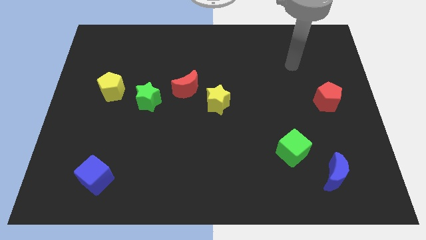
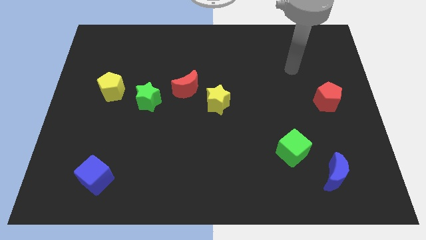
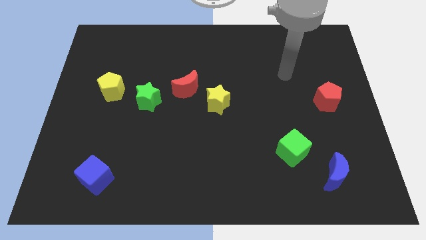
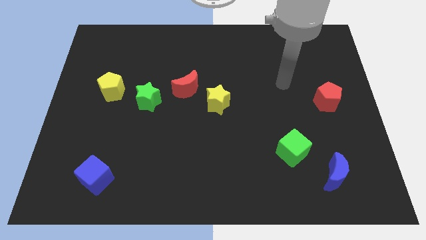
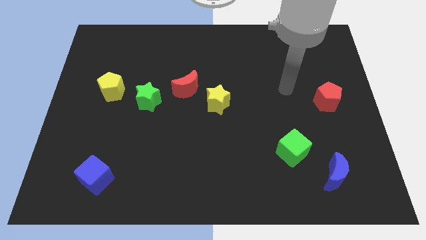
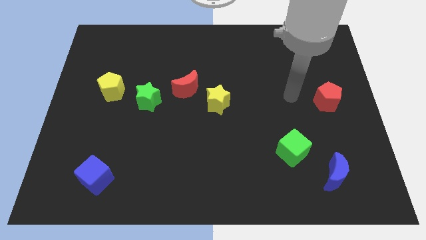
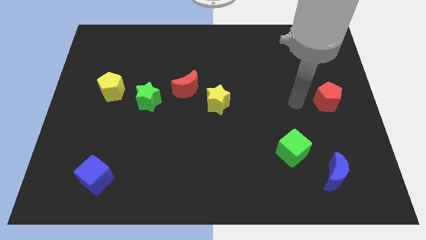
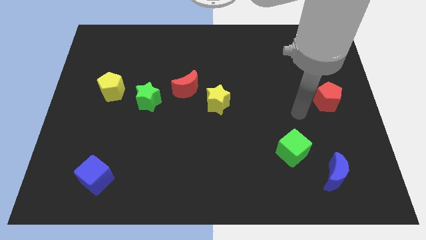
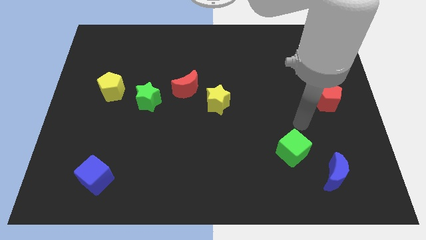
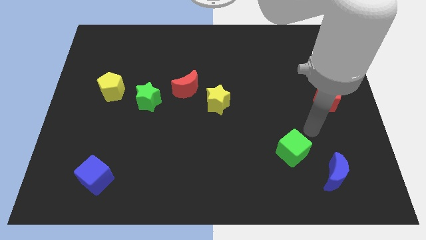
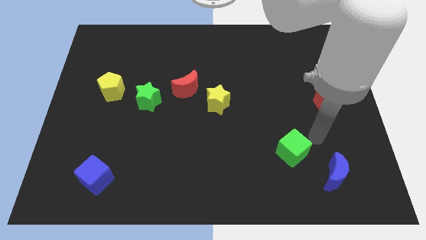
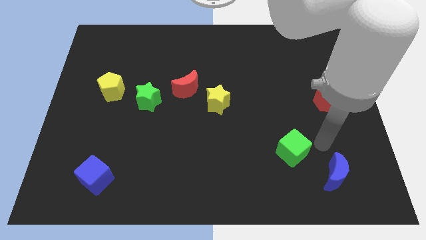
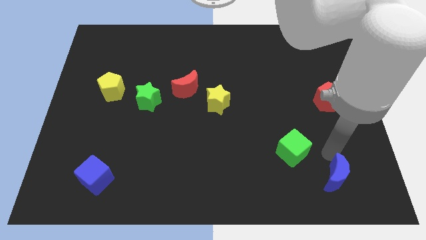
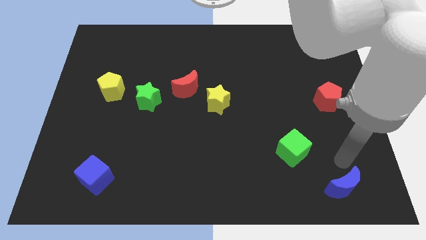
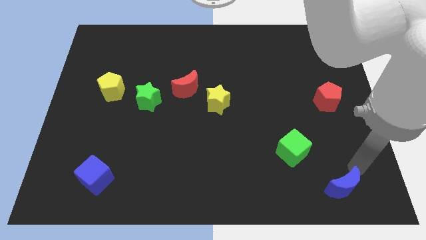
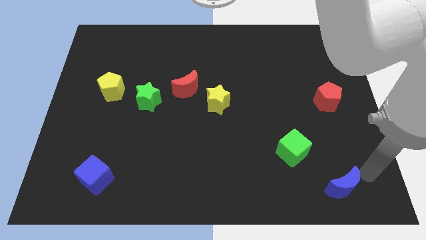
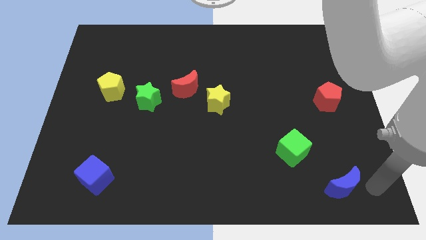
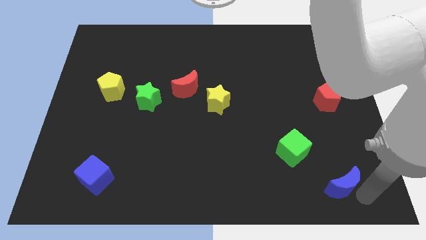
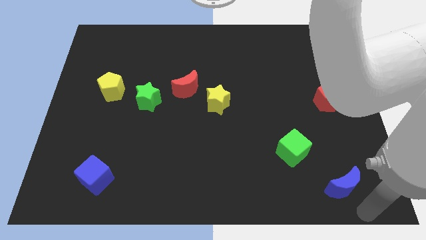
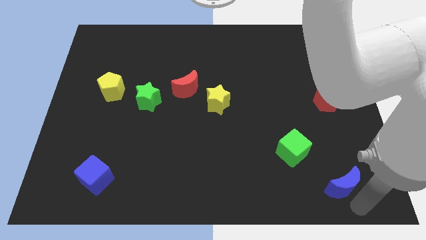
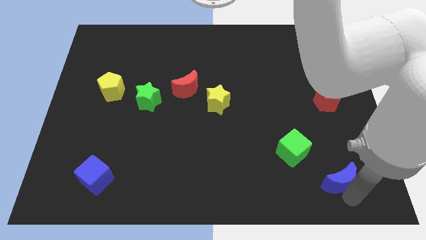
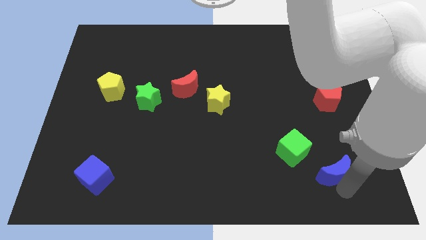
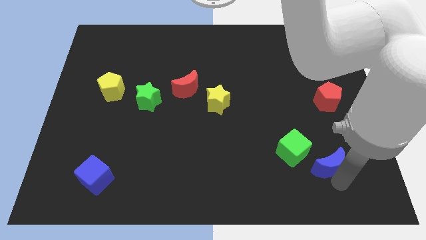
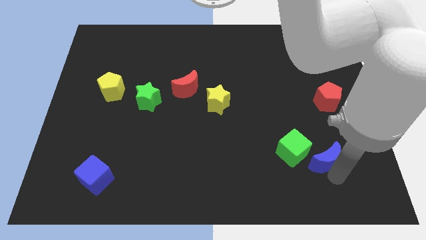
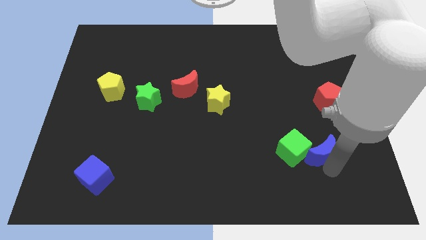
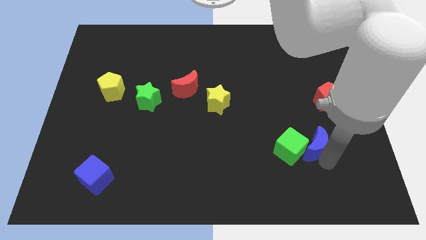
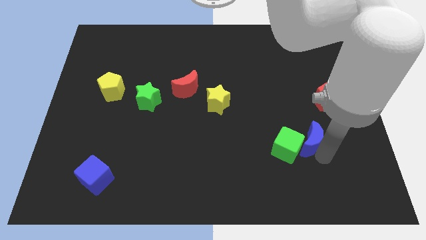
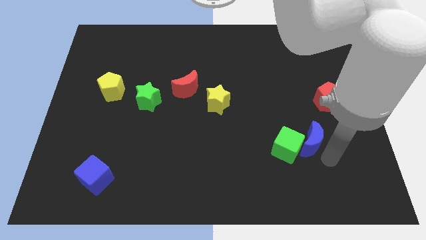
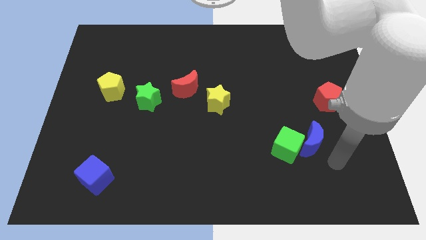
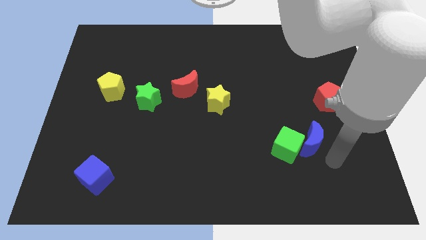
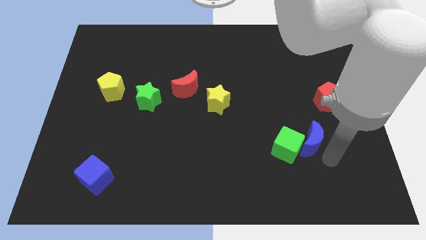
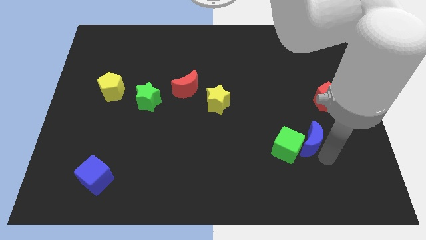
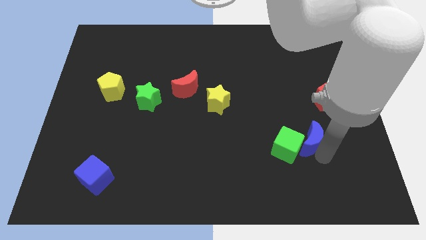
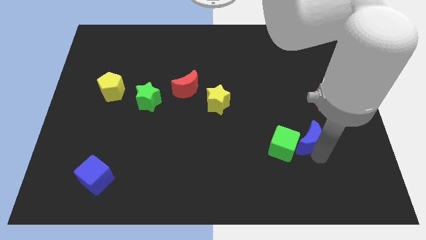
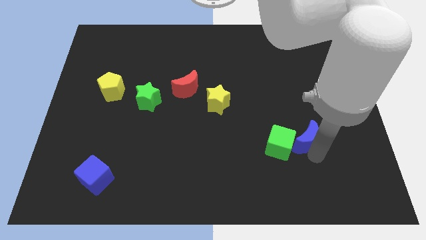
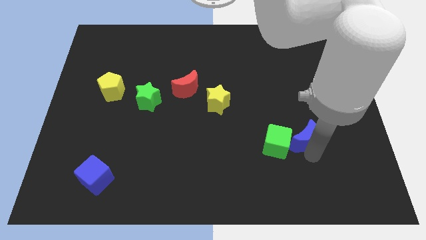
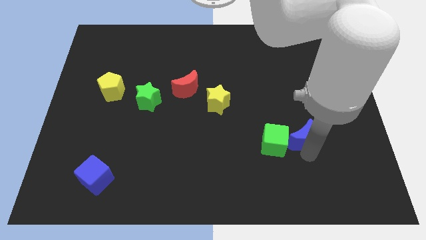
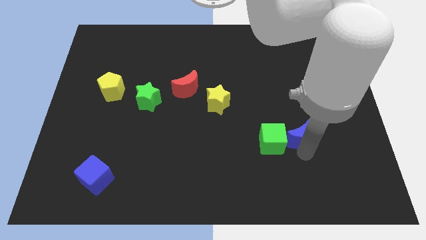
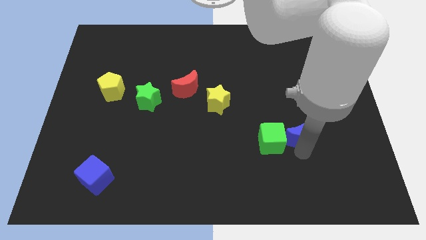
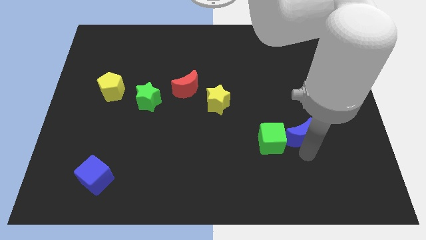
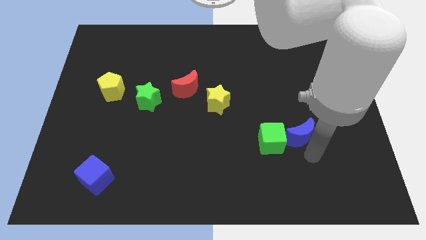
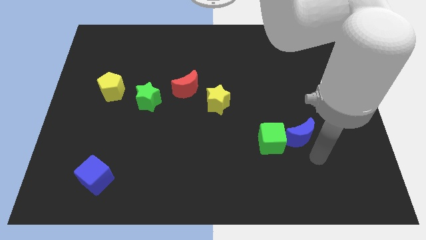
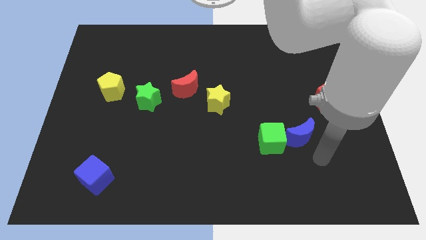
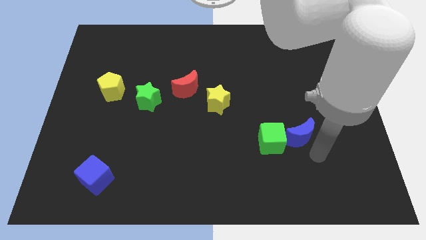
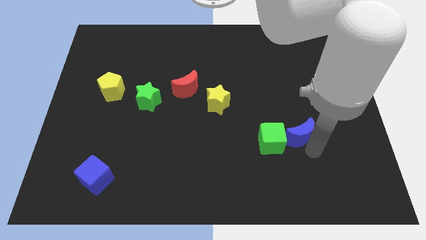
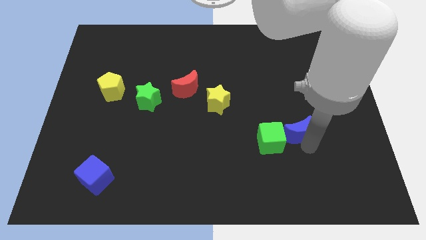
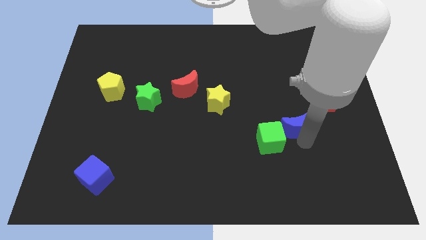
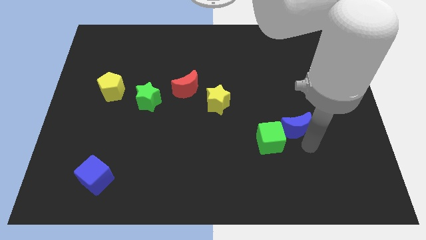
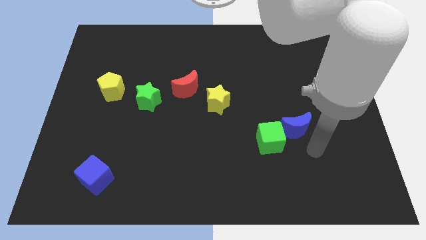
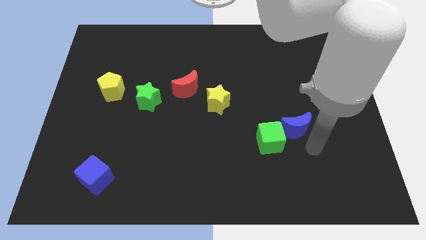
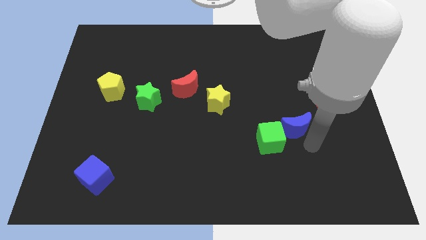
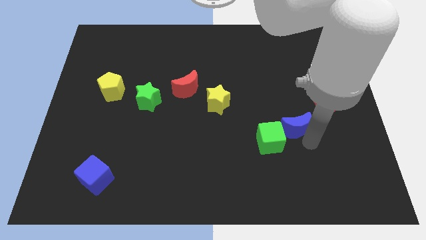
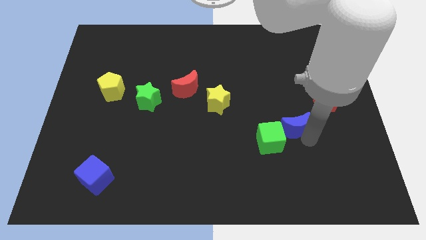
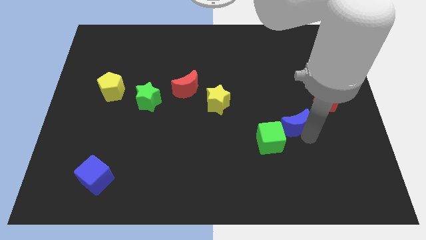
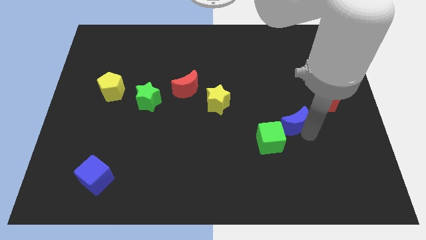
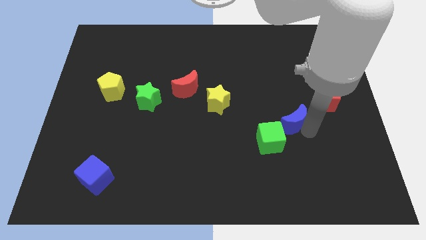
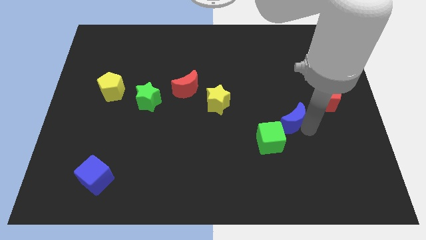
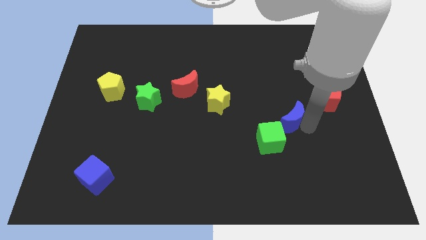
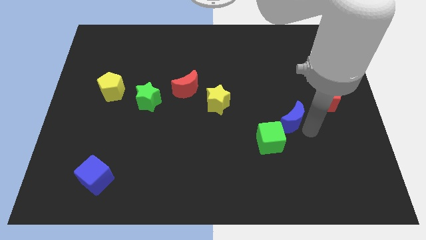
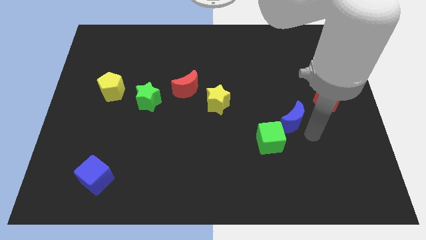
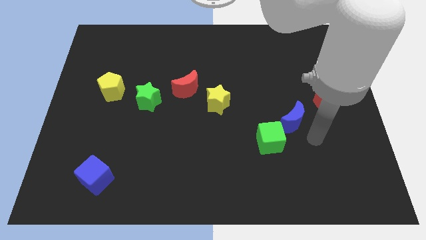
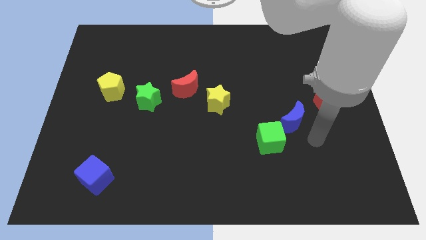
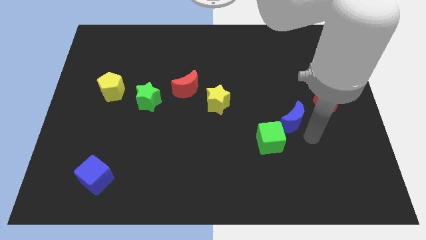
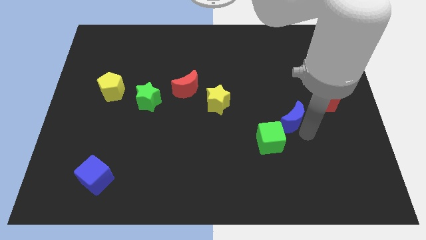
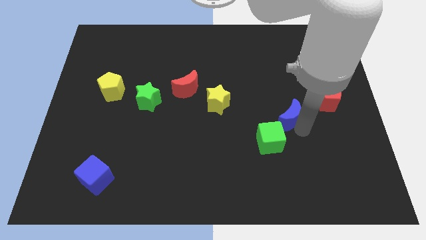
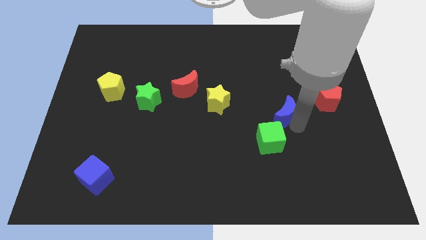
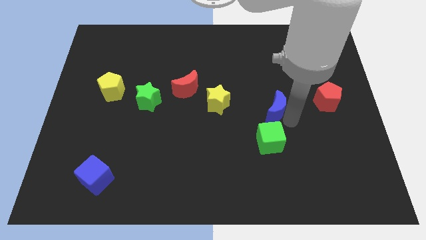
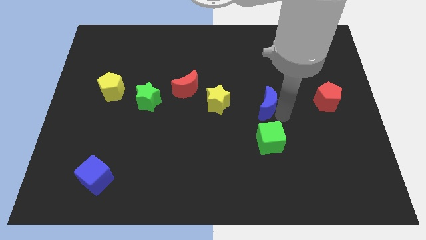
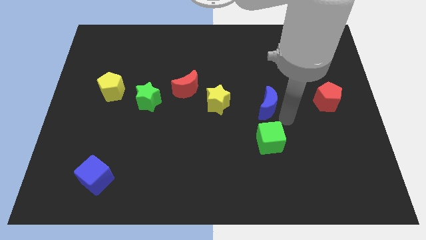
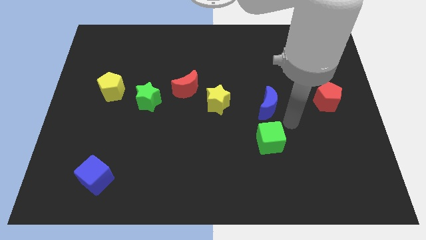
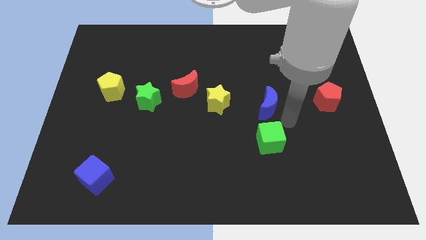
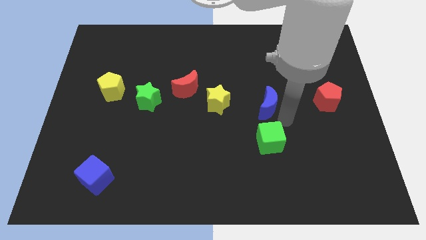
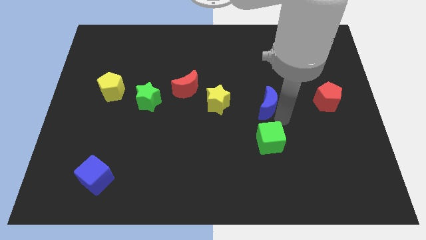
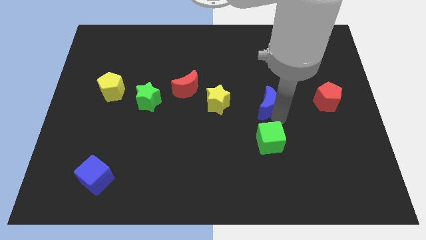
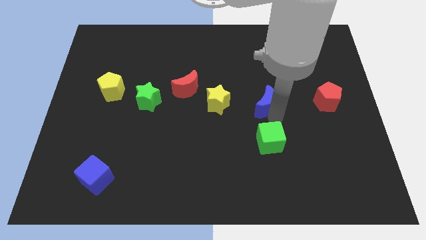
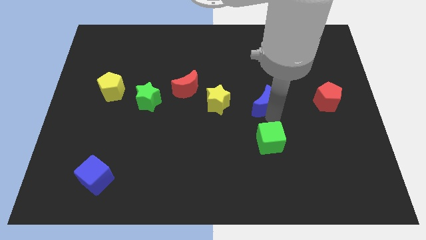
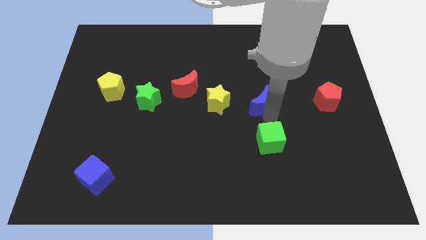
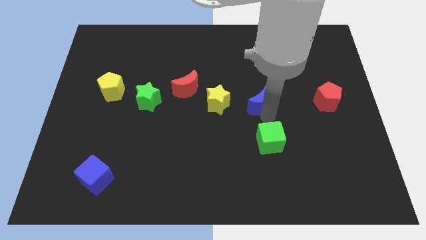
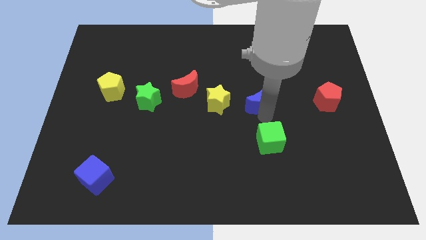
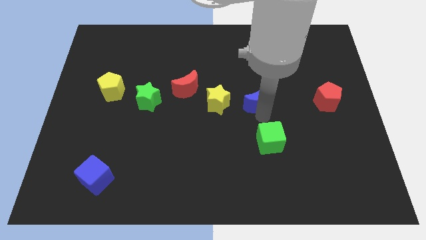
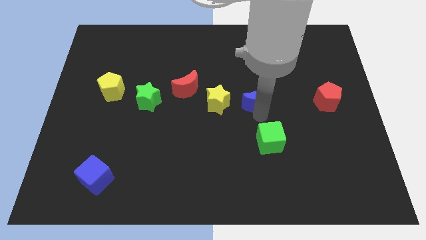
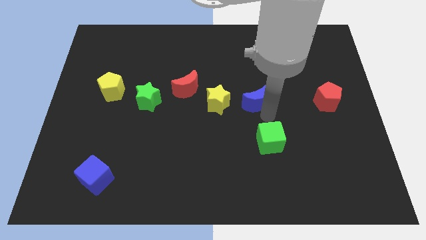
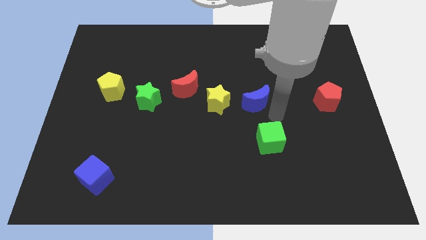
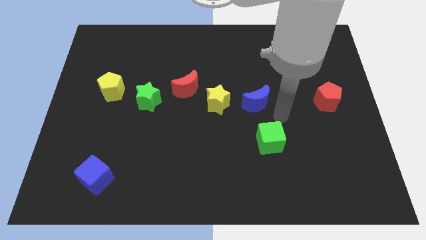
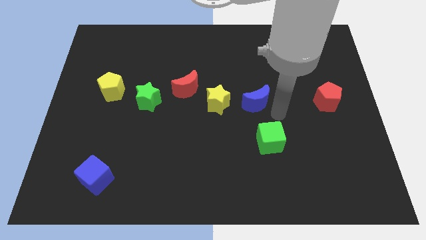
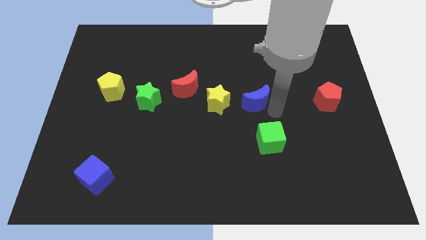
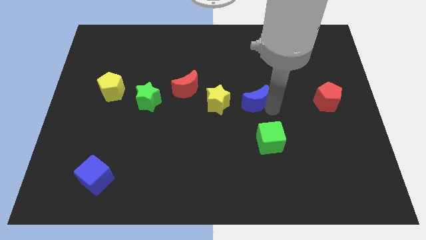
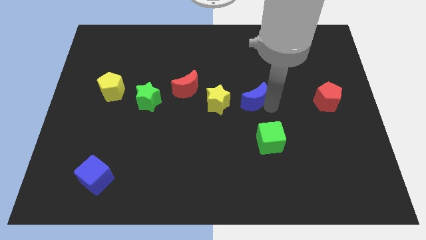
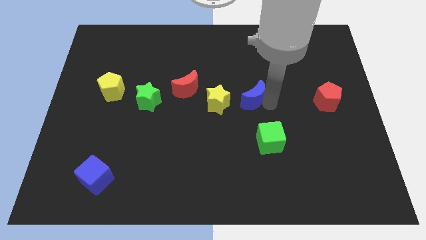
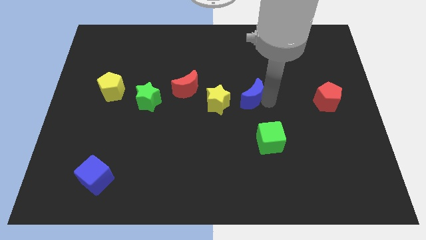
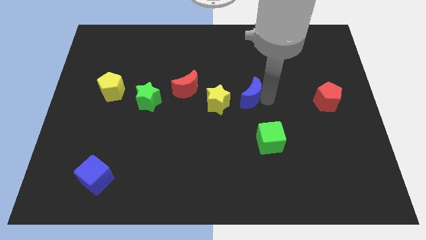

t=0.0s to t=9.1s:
move the blue moon just right of the red moon
